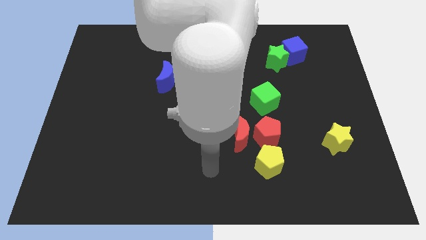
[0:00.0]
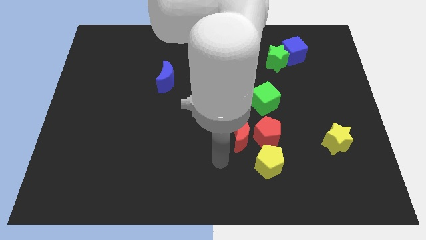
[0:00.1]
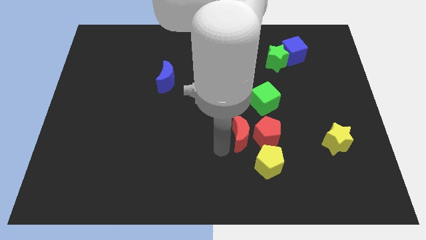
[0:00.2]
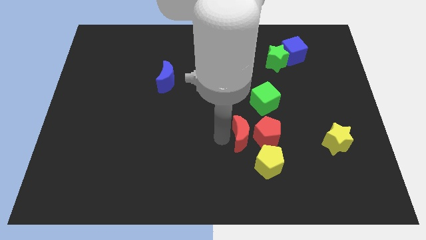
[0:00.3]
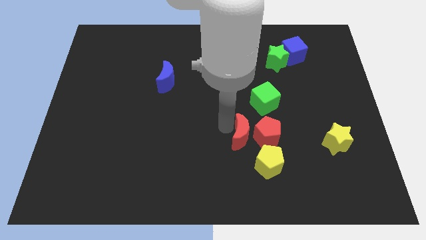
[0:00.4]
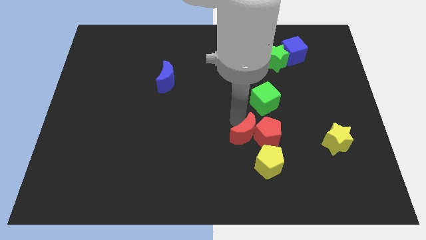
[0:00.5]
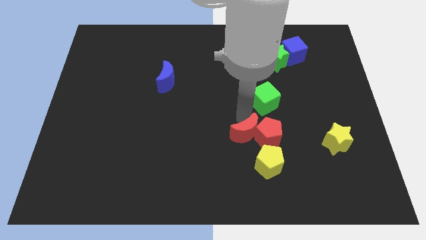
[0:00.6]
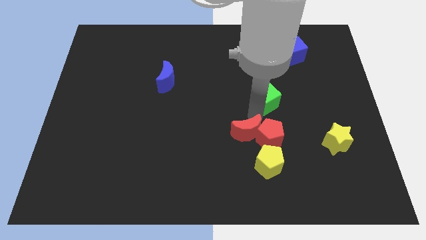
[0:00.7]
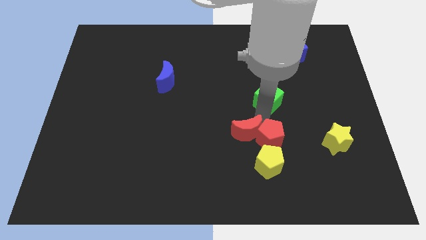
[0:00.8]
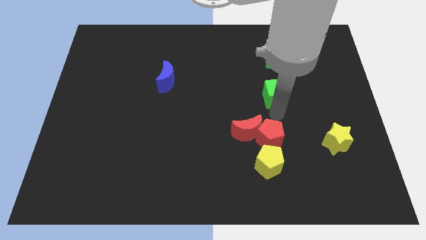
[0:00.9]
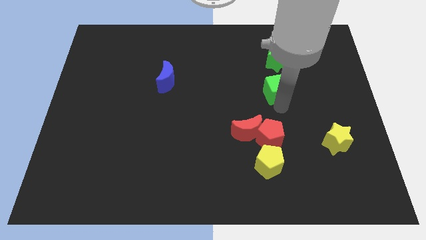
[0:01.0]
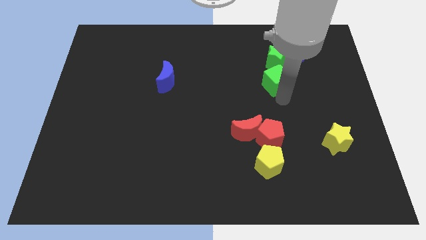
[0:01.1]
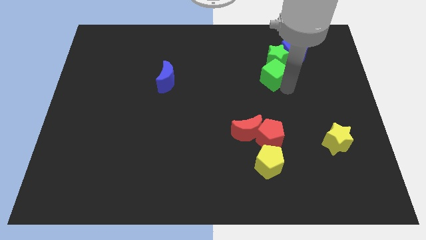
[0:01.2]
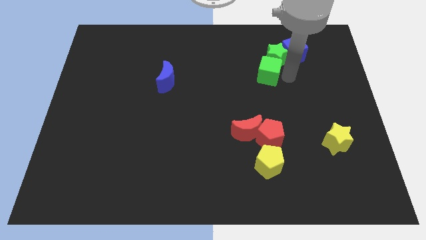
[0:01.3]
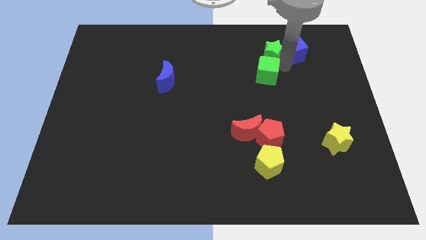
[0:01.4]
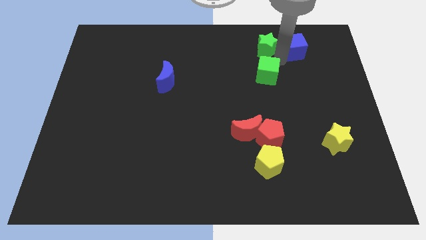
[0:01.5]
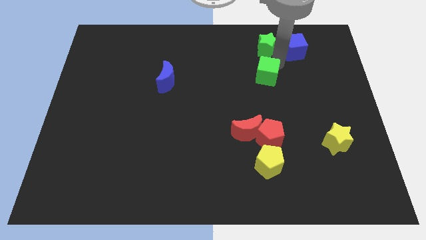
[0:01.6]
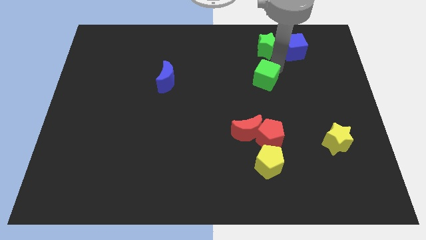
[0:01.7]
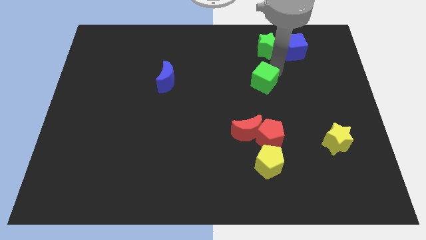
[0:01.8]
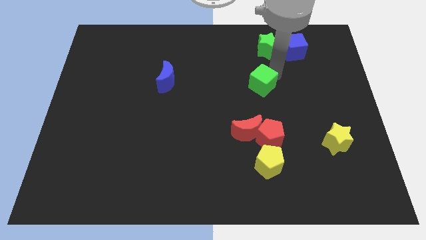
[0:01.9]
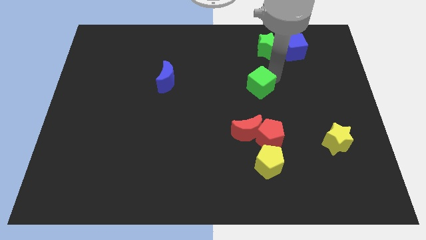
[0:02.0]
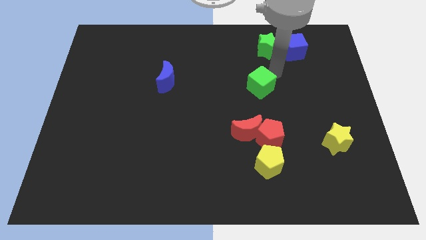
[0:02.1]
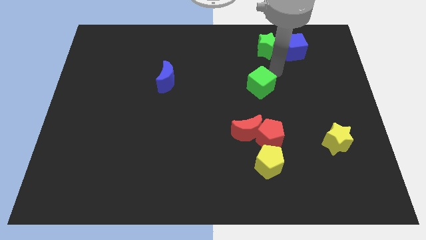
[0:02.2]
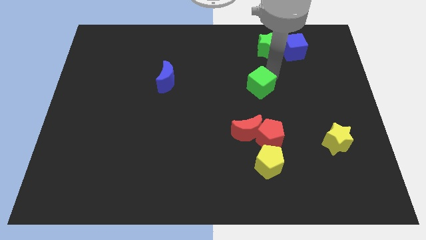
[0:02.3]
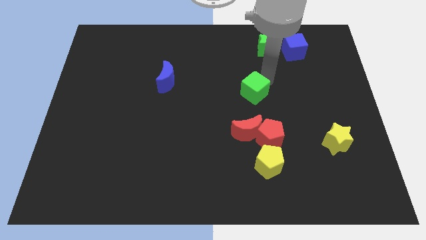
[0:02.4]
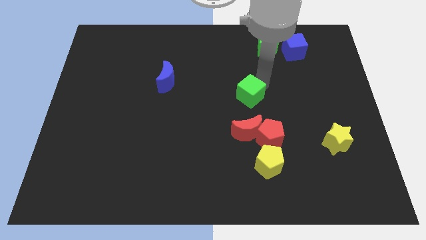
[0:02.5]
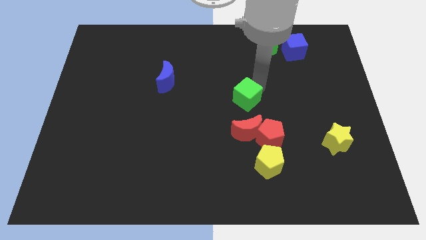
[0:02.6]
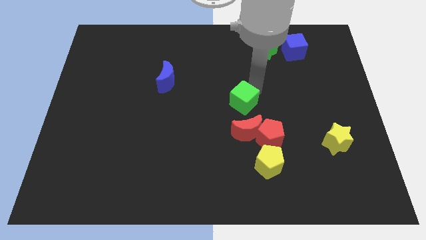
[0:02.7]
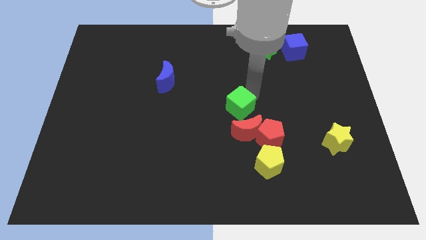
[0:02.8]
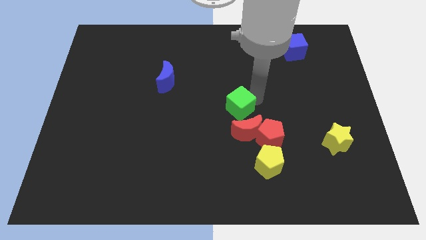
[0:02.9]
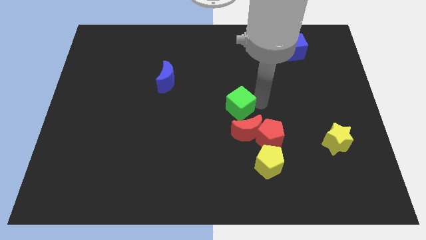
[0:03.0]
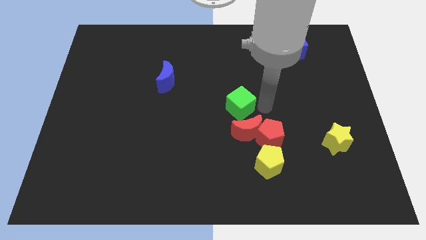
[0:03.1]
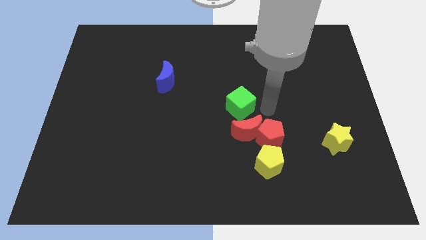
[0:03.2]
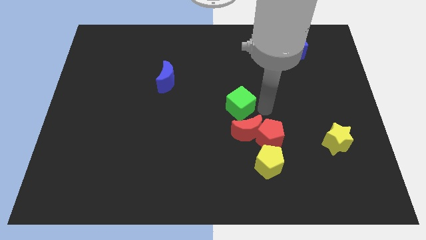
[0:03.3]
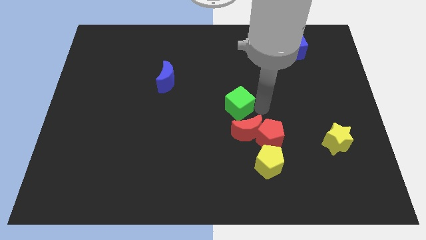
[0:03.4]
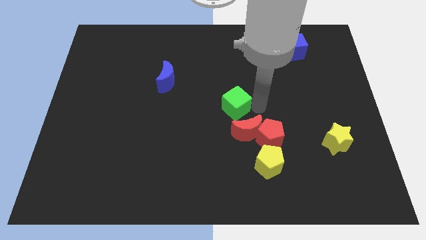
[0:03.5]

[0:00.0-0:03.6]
slide the green cube to the left a little

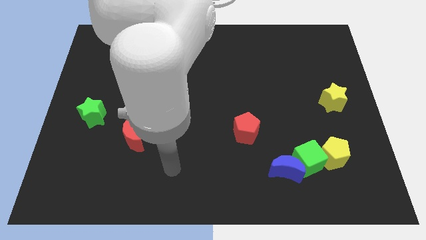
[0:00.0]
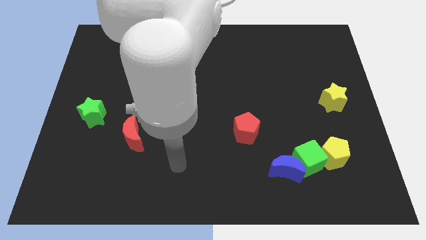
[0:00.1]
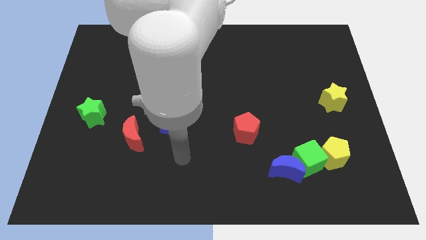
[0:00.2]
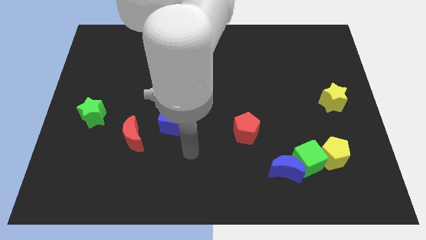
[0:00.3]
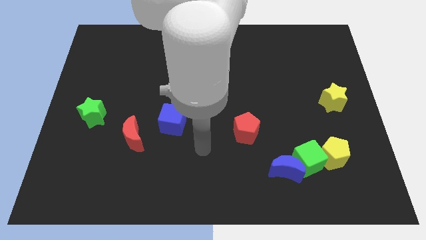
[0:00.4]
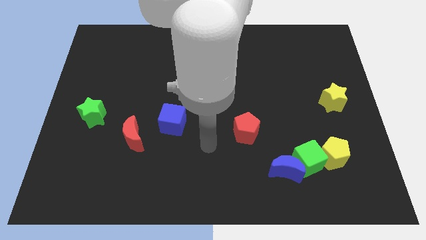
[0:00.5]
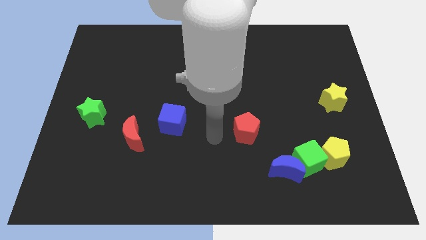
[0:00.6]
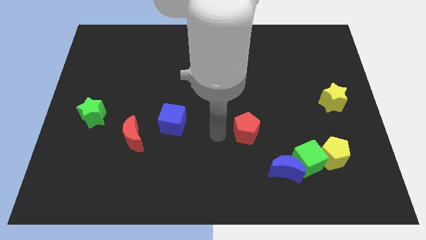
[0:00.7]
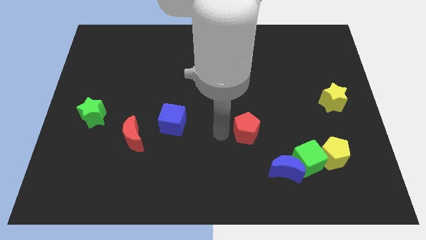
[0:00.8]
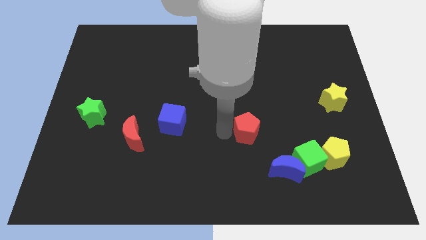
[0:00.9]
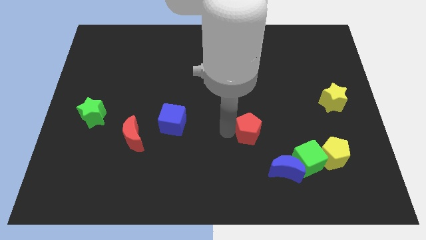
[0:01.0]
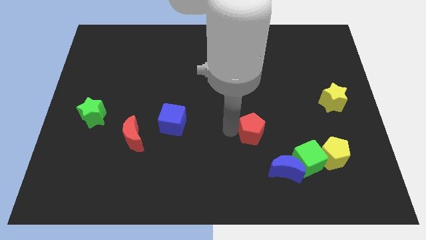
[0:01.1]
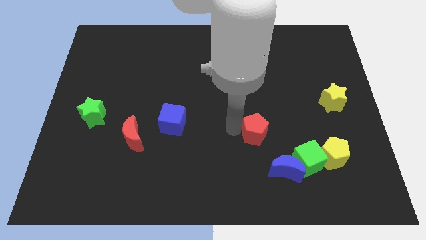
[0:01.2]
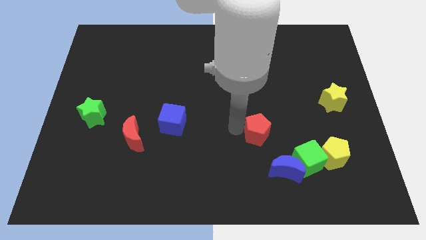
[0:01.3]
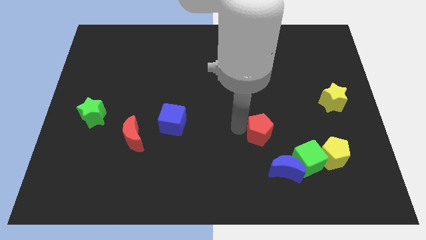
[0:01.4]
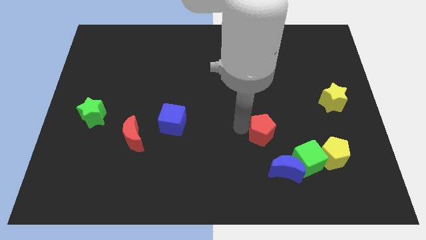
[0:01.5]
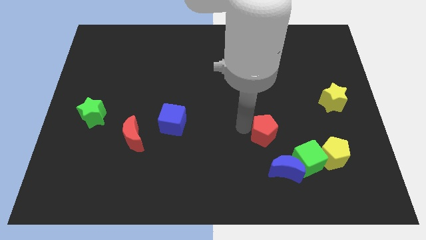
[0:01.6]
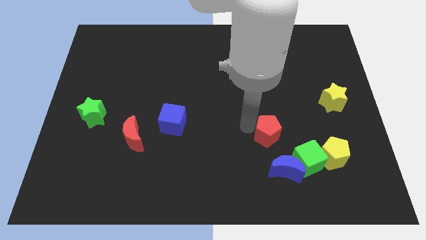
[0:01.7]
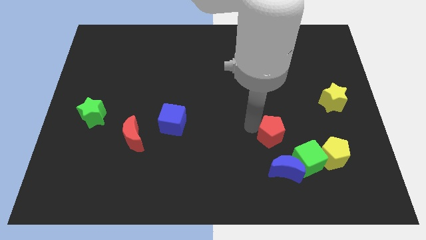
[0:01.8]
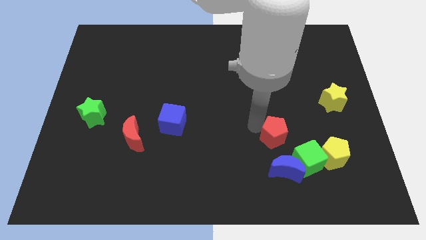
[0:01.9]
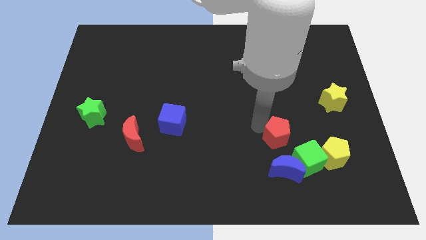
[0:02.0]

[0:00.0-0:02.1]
slightly move the red pentagon to the right

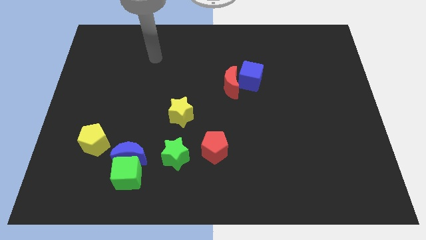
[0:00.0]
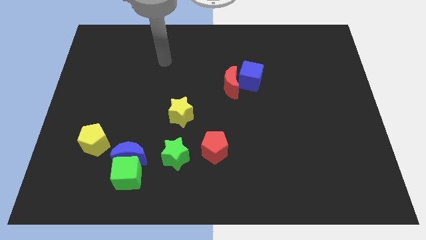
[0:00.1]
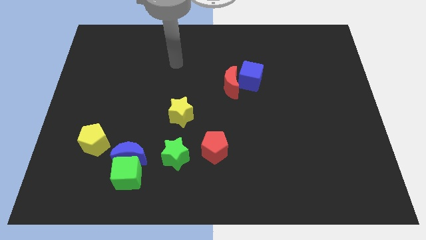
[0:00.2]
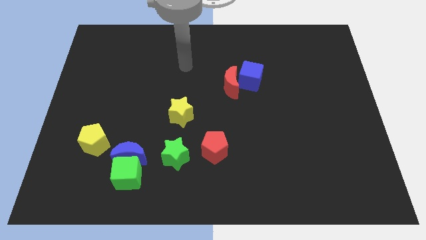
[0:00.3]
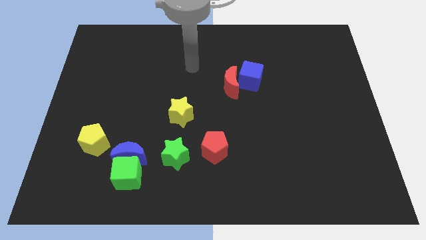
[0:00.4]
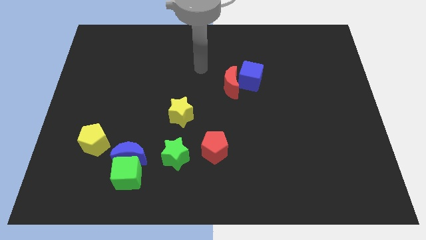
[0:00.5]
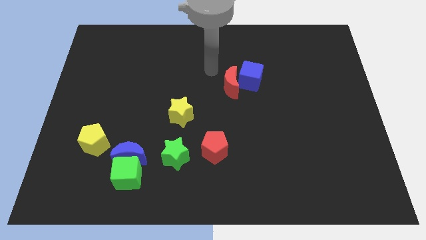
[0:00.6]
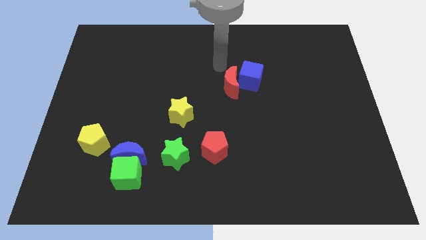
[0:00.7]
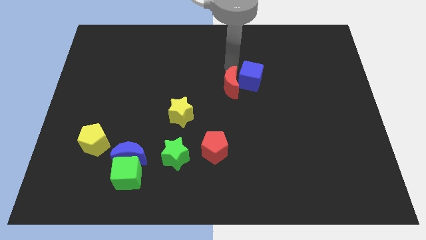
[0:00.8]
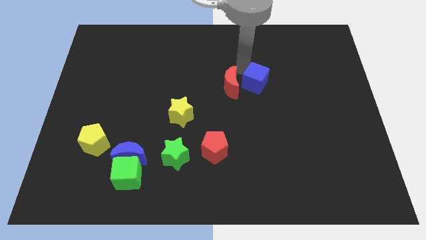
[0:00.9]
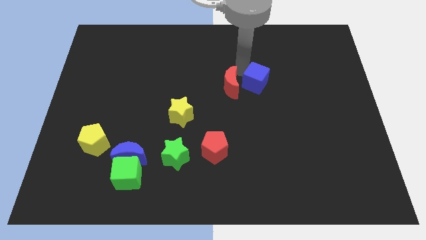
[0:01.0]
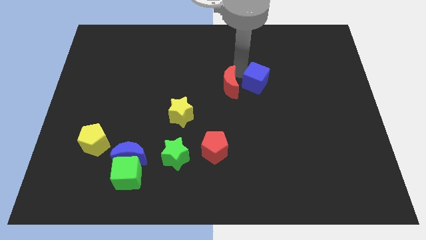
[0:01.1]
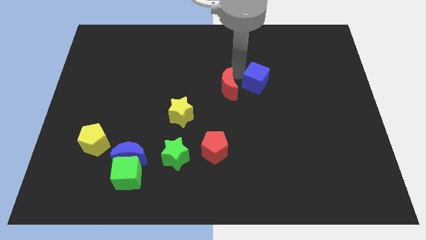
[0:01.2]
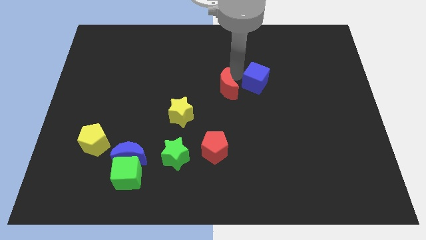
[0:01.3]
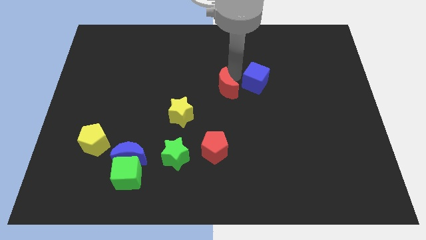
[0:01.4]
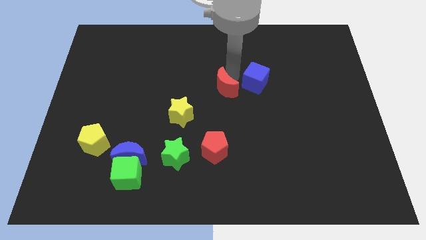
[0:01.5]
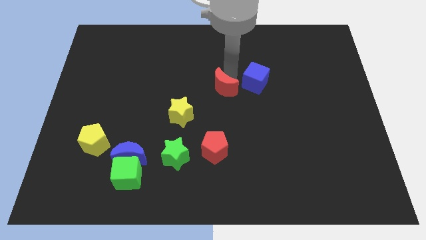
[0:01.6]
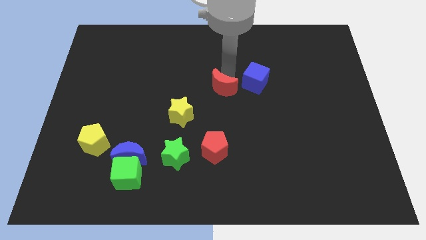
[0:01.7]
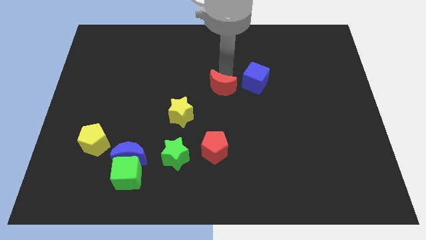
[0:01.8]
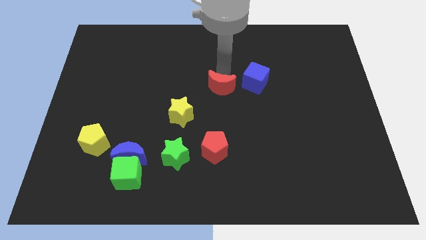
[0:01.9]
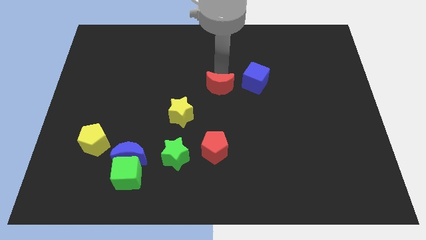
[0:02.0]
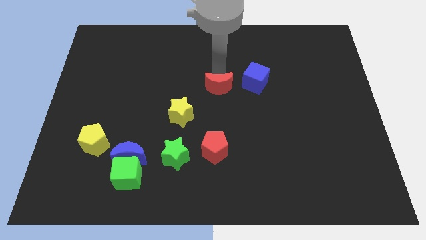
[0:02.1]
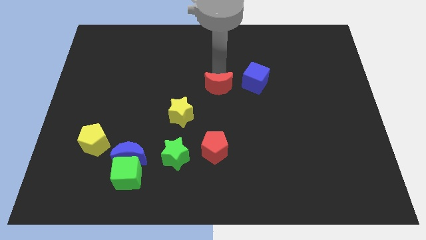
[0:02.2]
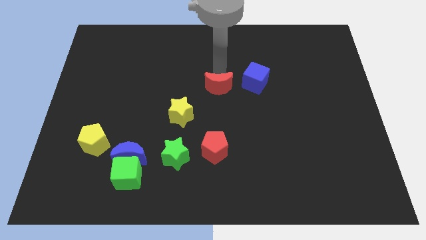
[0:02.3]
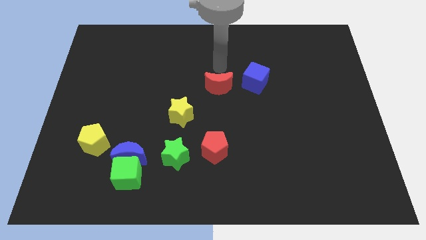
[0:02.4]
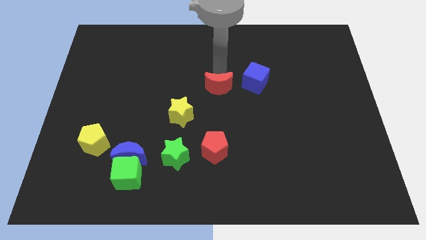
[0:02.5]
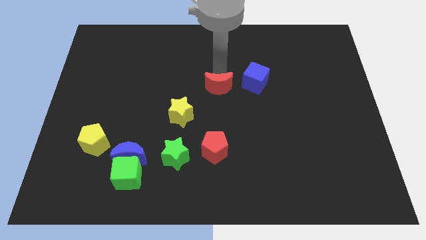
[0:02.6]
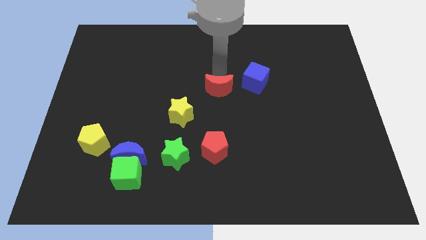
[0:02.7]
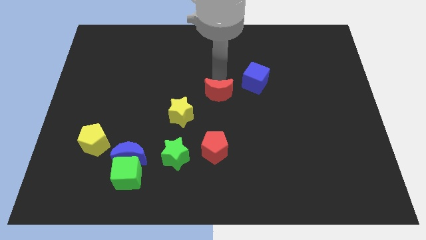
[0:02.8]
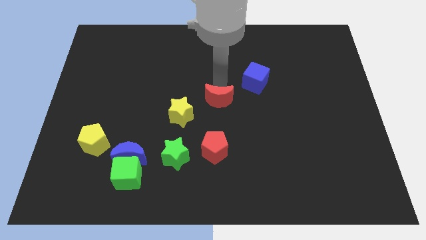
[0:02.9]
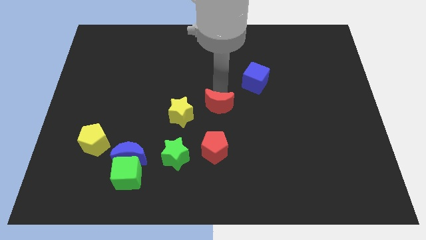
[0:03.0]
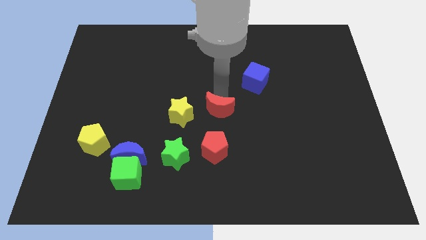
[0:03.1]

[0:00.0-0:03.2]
slide the red moon slightly diagonally down and to the left
